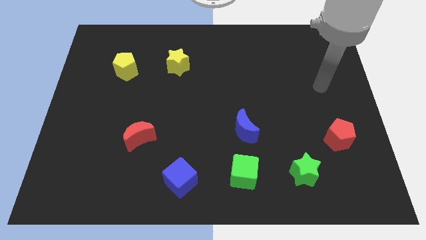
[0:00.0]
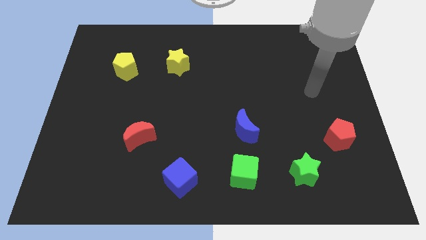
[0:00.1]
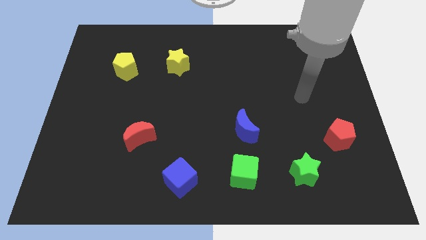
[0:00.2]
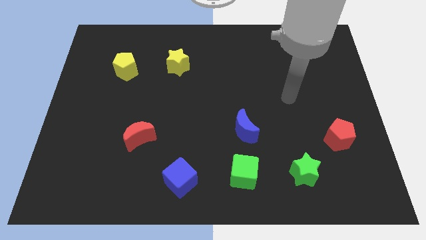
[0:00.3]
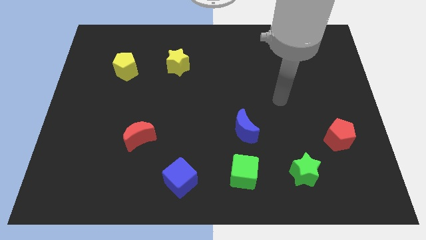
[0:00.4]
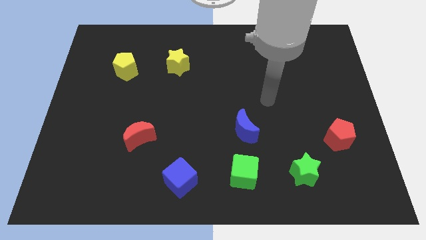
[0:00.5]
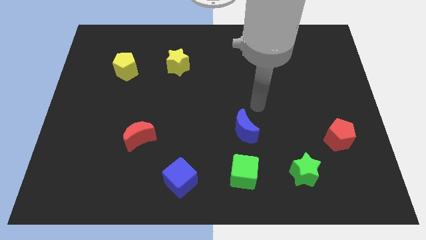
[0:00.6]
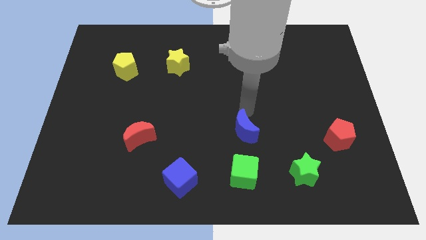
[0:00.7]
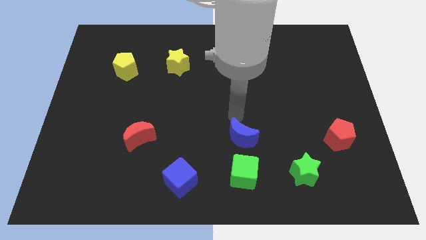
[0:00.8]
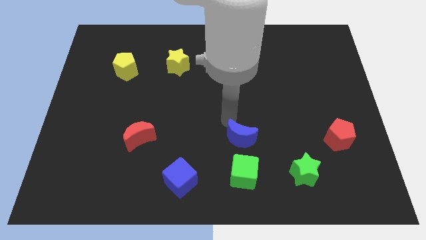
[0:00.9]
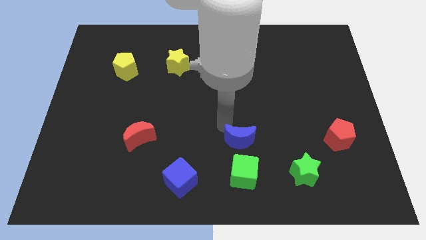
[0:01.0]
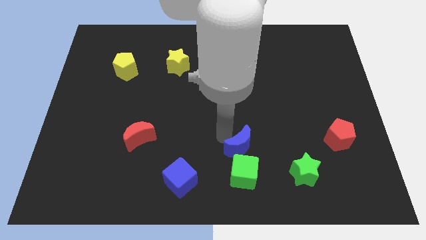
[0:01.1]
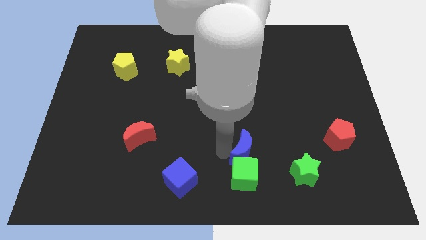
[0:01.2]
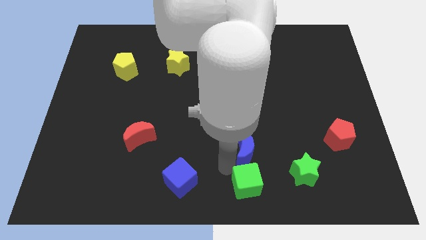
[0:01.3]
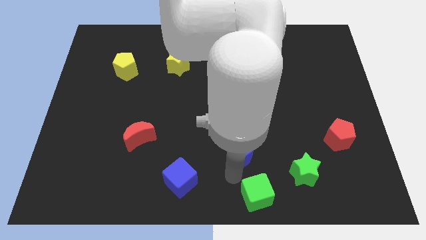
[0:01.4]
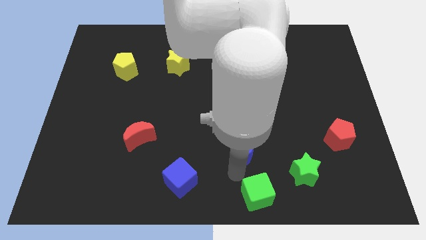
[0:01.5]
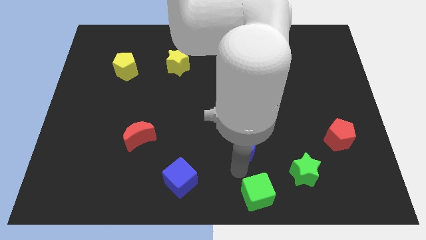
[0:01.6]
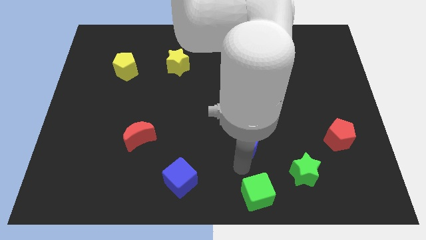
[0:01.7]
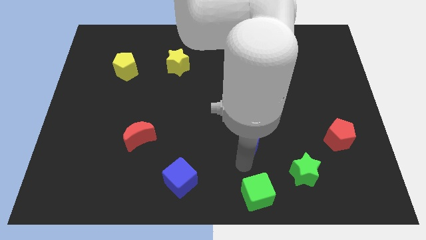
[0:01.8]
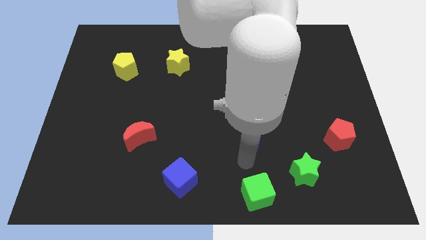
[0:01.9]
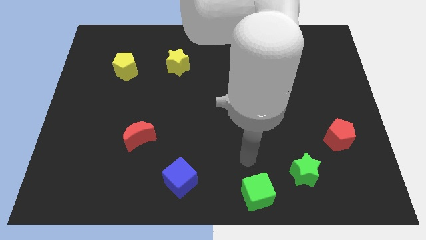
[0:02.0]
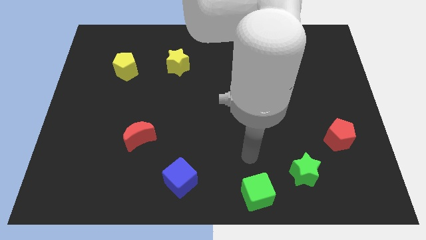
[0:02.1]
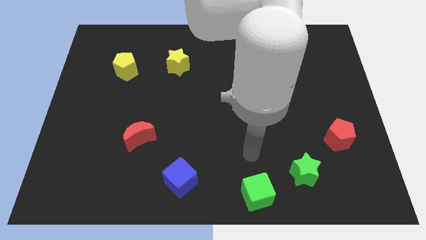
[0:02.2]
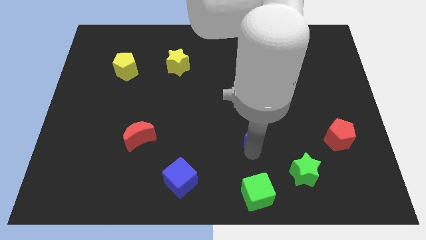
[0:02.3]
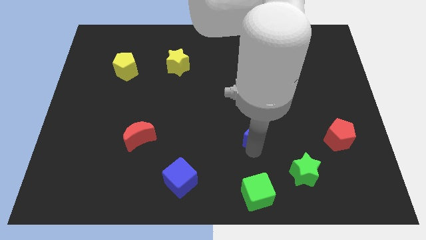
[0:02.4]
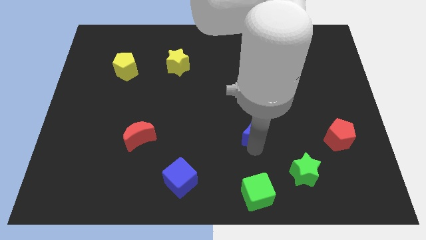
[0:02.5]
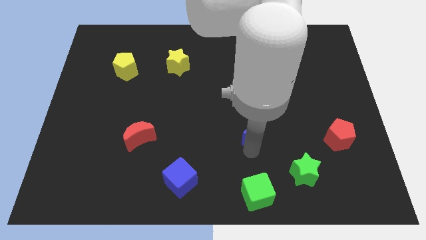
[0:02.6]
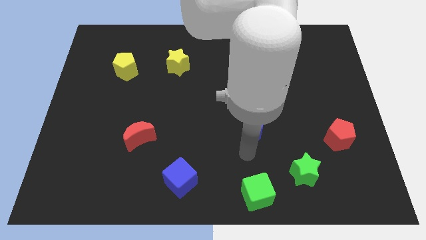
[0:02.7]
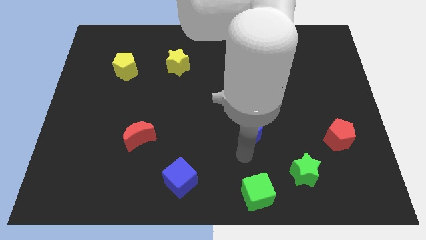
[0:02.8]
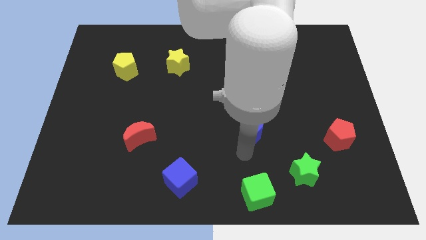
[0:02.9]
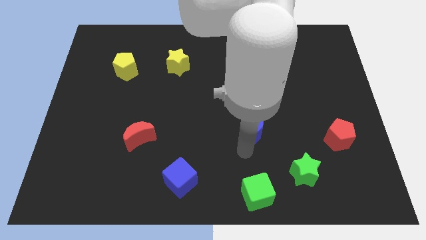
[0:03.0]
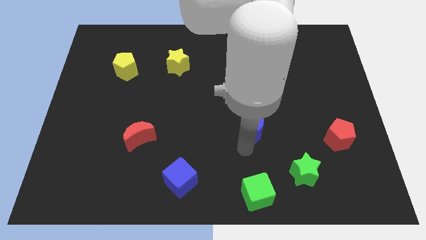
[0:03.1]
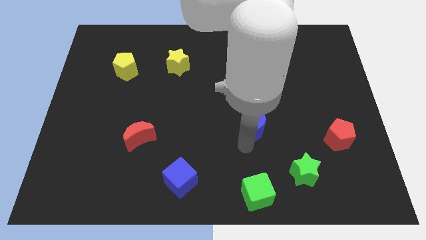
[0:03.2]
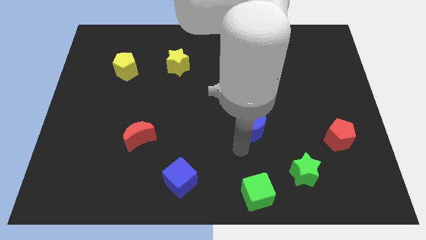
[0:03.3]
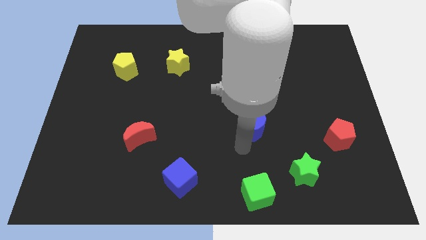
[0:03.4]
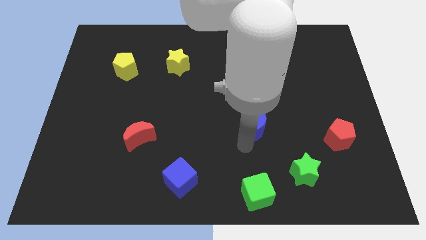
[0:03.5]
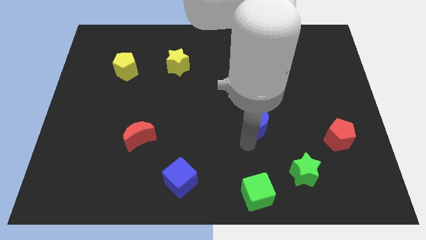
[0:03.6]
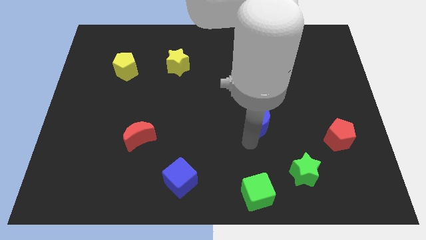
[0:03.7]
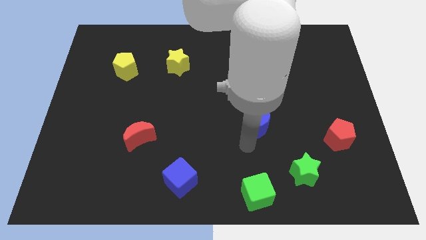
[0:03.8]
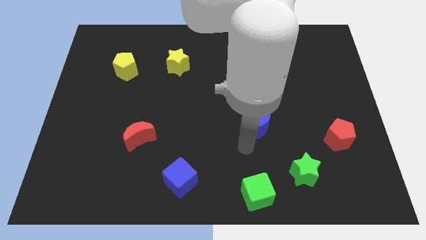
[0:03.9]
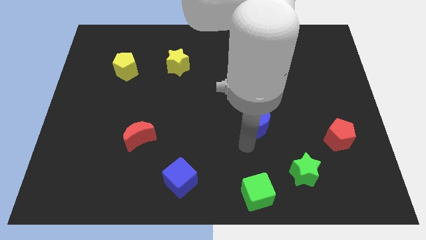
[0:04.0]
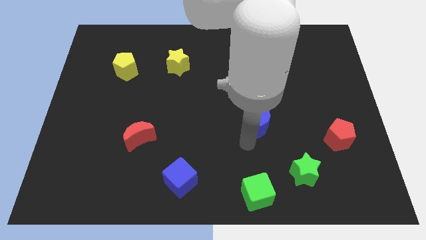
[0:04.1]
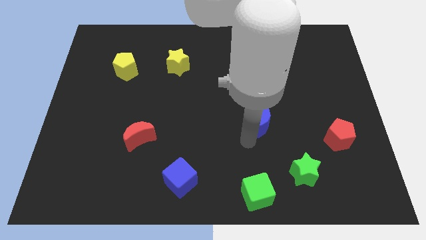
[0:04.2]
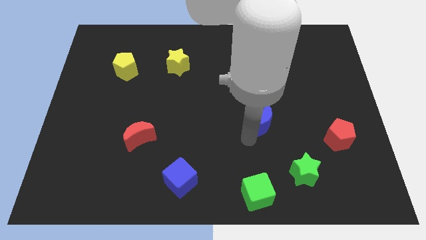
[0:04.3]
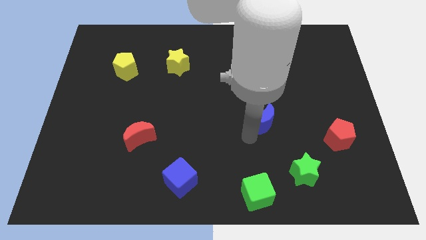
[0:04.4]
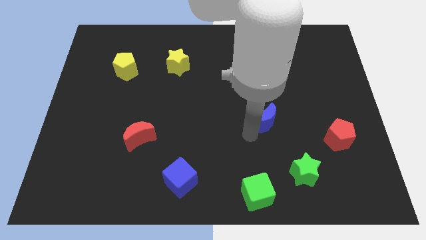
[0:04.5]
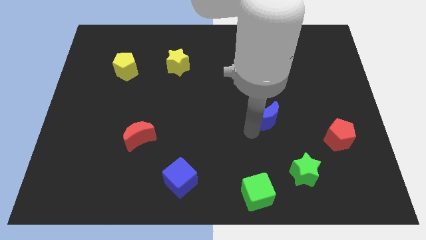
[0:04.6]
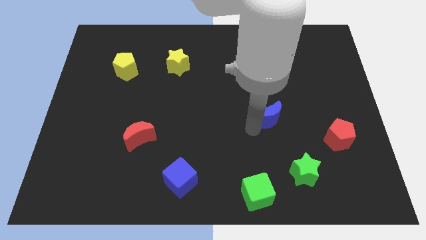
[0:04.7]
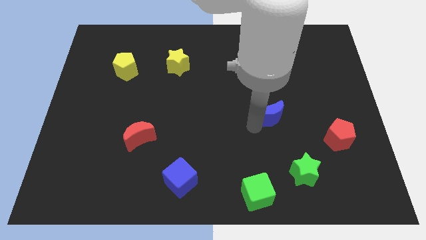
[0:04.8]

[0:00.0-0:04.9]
slide the blue moon upwards and to the right diagonally a little

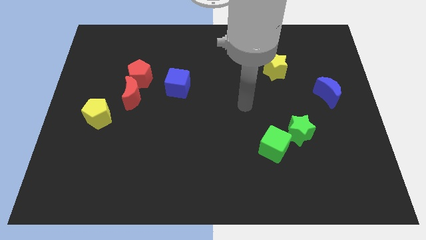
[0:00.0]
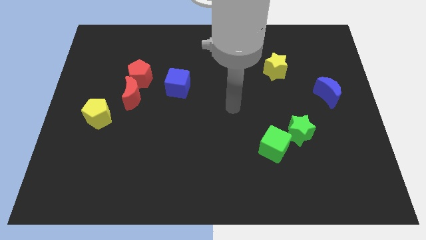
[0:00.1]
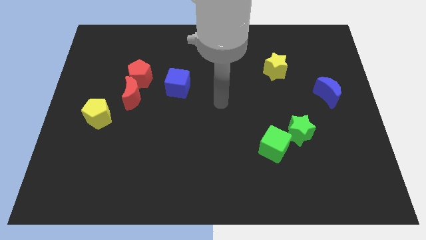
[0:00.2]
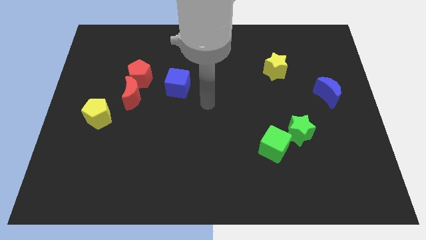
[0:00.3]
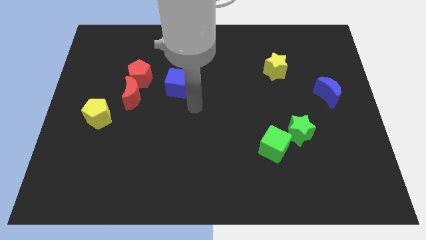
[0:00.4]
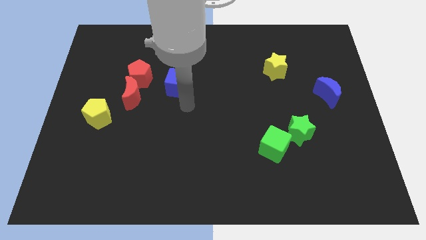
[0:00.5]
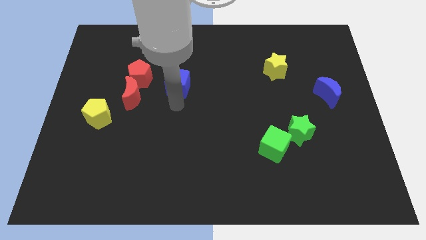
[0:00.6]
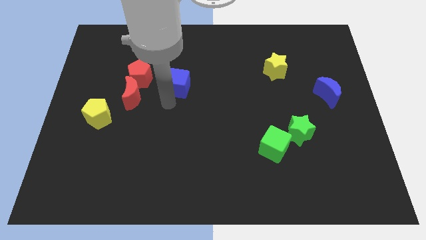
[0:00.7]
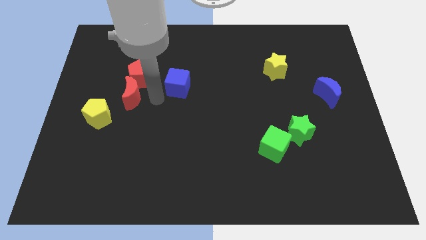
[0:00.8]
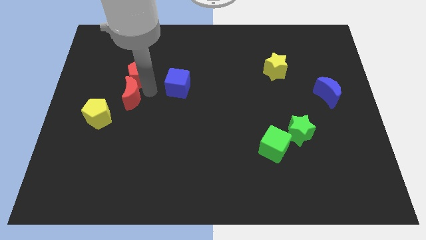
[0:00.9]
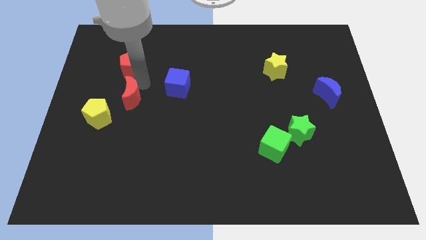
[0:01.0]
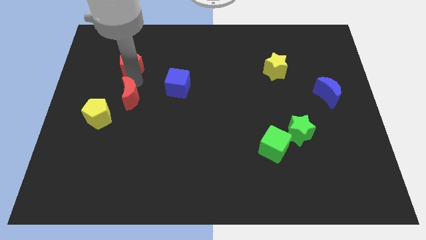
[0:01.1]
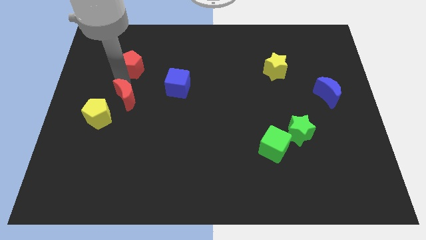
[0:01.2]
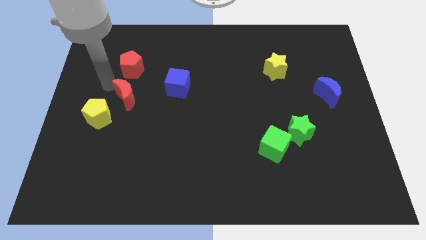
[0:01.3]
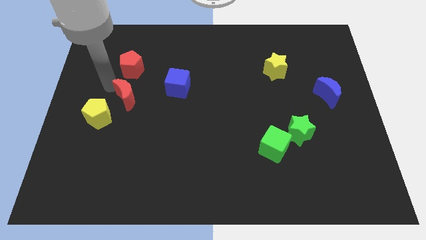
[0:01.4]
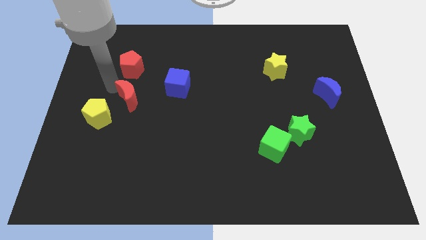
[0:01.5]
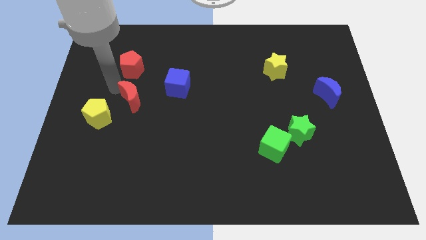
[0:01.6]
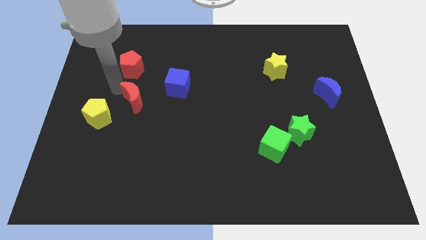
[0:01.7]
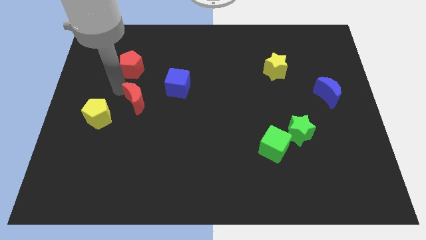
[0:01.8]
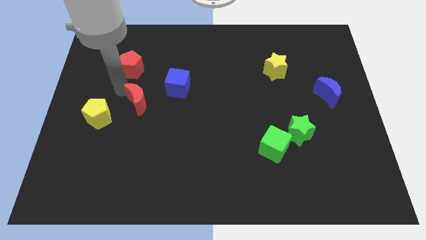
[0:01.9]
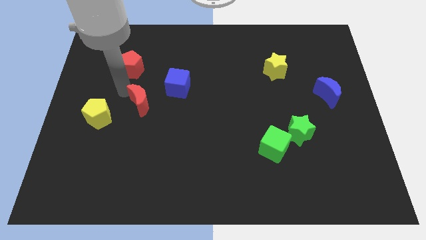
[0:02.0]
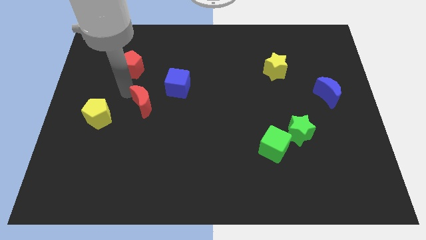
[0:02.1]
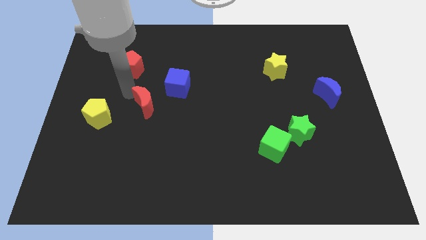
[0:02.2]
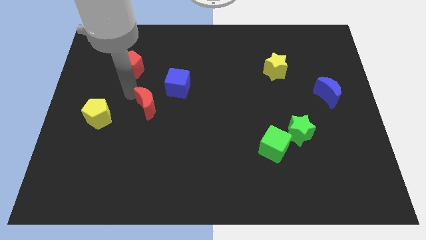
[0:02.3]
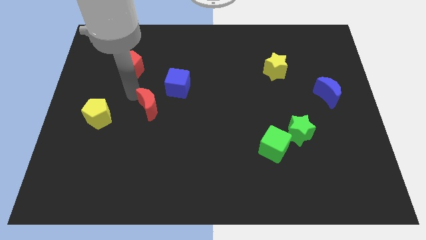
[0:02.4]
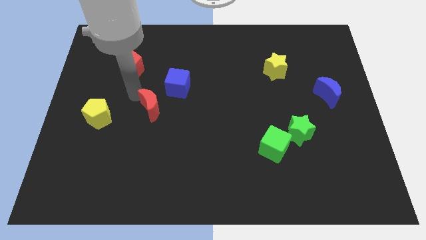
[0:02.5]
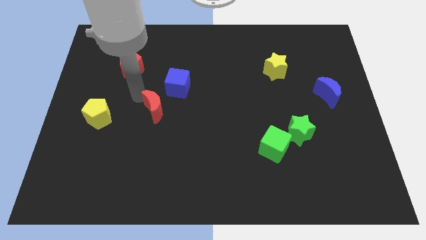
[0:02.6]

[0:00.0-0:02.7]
slide the red moon diagonally downwards and right a little bit
